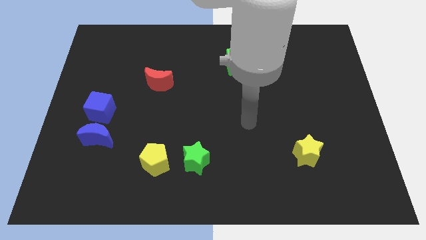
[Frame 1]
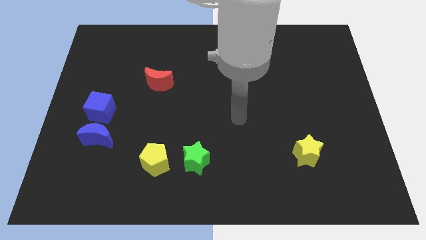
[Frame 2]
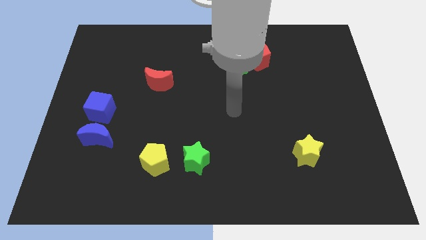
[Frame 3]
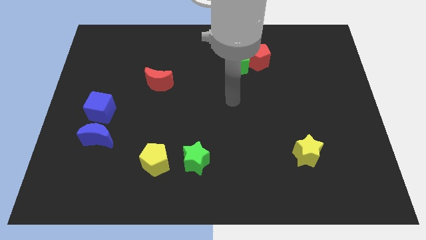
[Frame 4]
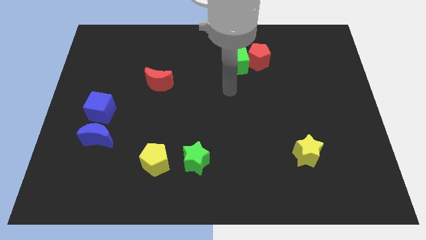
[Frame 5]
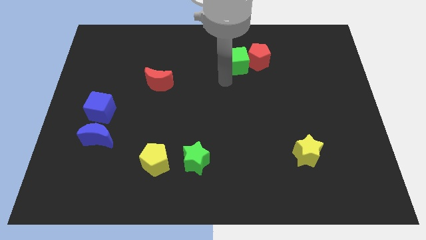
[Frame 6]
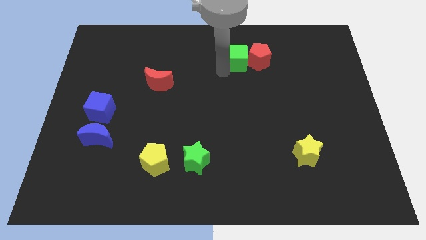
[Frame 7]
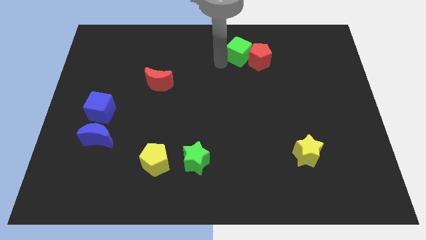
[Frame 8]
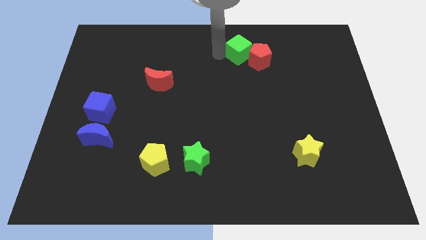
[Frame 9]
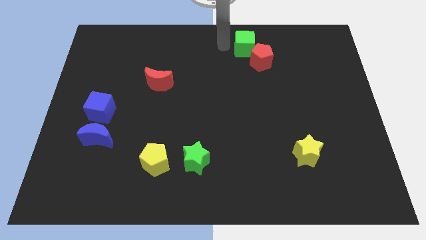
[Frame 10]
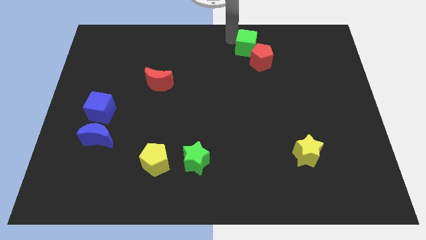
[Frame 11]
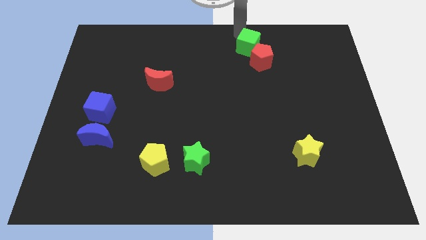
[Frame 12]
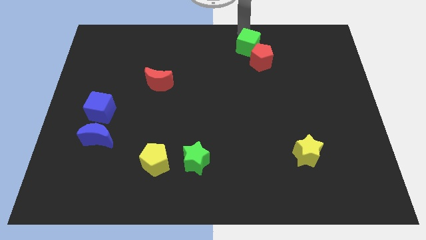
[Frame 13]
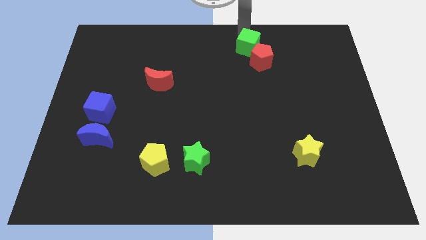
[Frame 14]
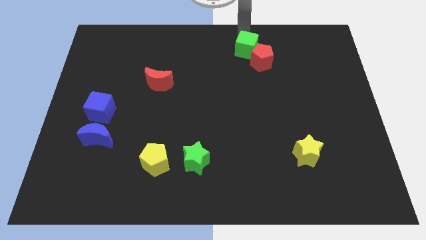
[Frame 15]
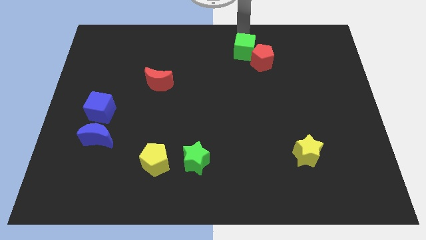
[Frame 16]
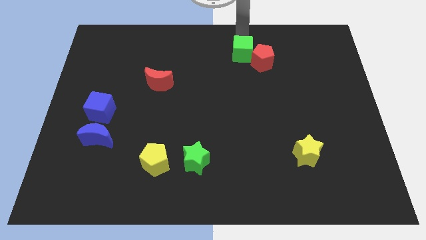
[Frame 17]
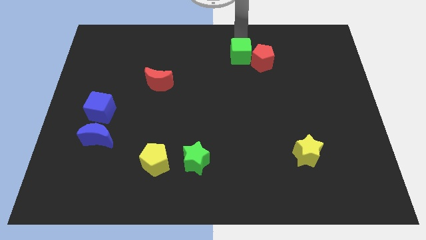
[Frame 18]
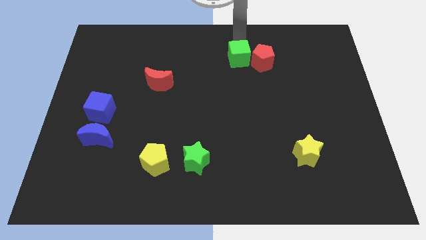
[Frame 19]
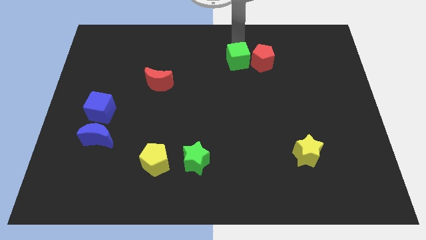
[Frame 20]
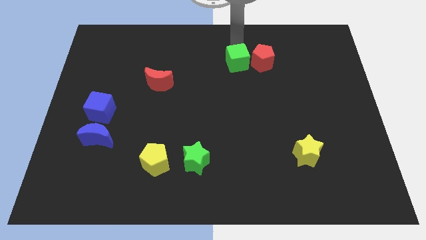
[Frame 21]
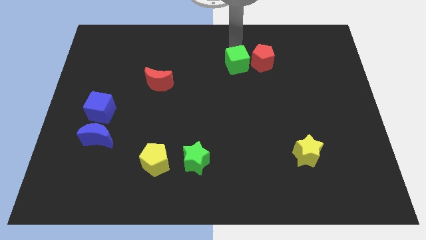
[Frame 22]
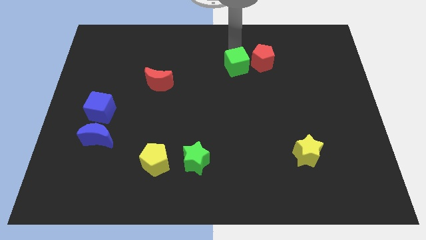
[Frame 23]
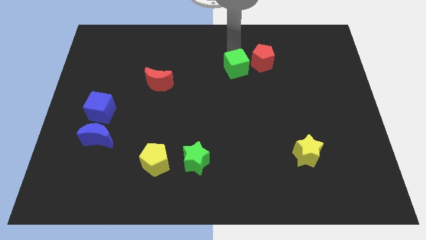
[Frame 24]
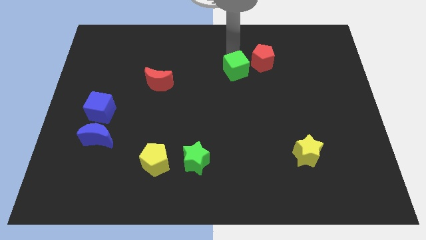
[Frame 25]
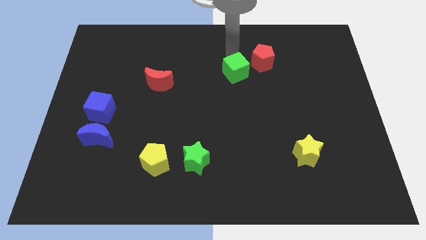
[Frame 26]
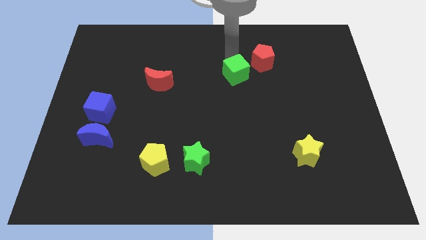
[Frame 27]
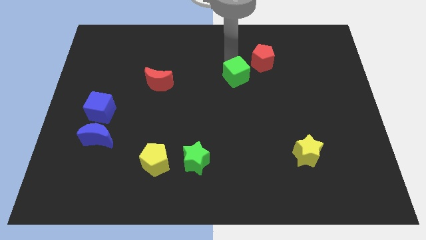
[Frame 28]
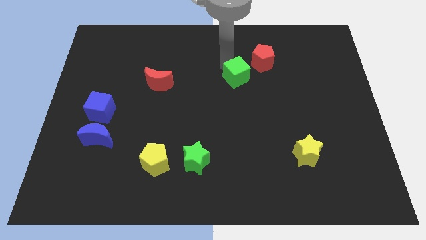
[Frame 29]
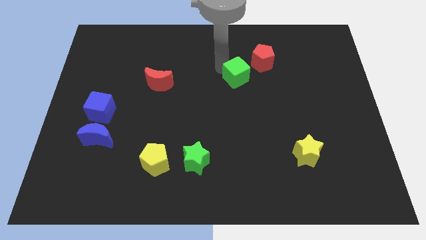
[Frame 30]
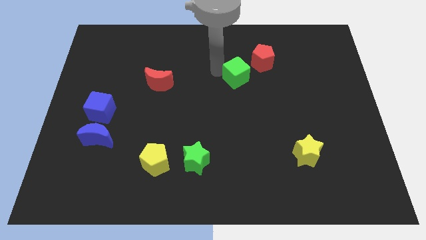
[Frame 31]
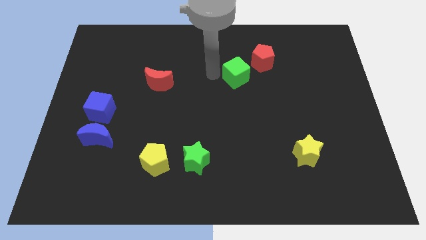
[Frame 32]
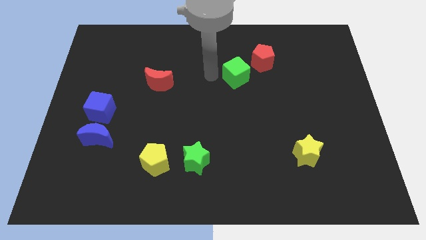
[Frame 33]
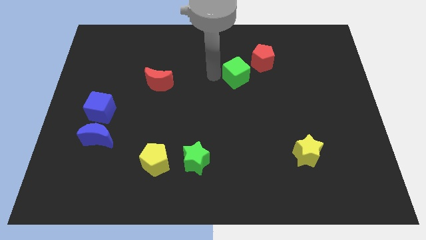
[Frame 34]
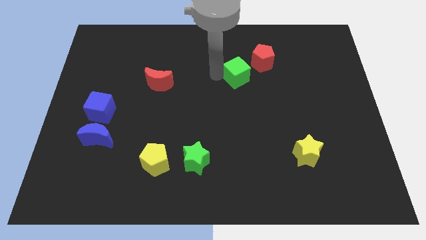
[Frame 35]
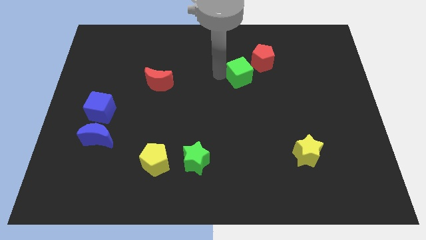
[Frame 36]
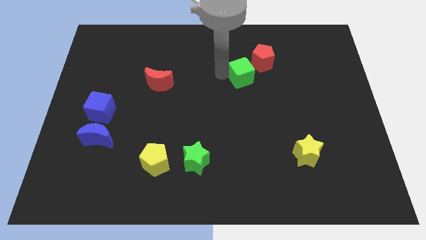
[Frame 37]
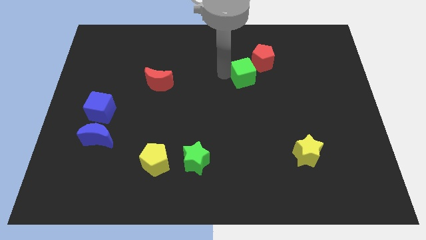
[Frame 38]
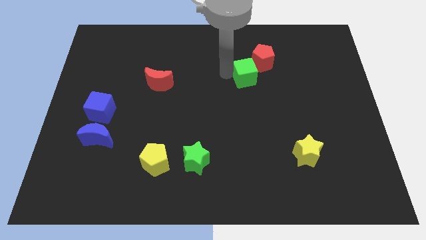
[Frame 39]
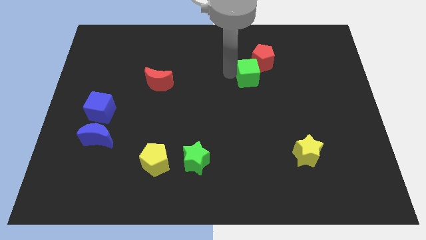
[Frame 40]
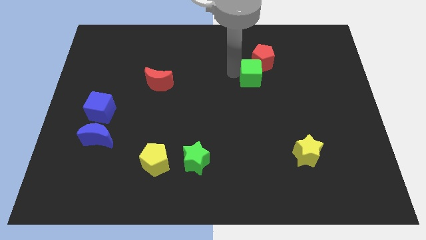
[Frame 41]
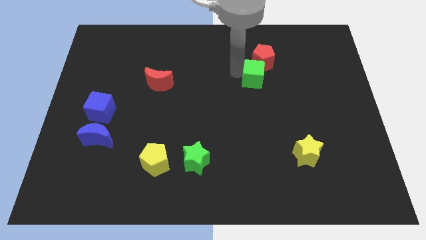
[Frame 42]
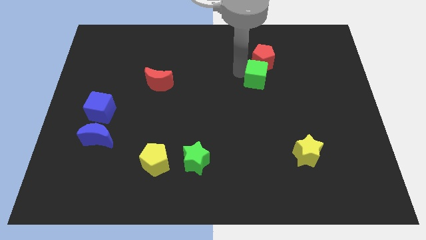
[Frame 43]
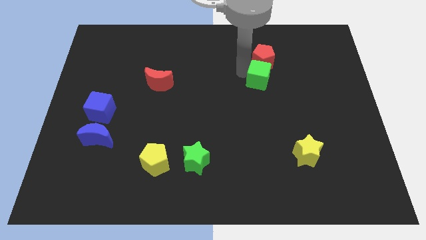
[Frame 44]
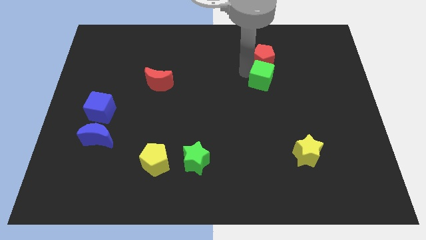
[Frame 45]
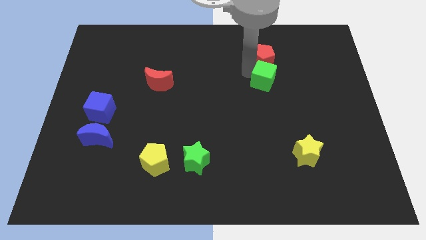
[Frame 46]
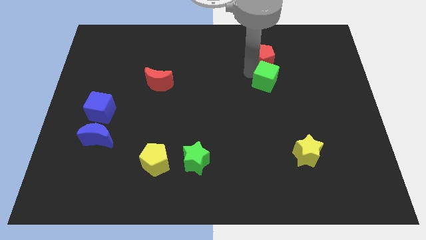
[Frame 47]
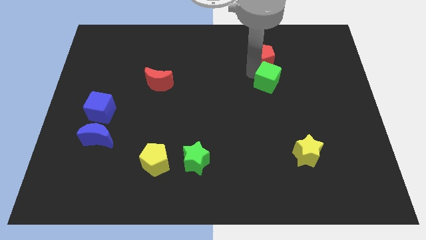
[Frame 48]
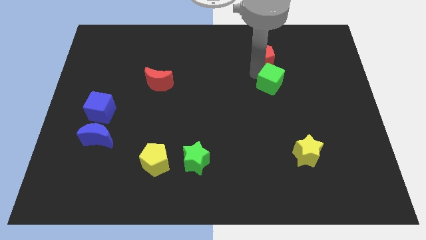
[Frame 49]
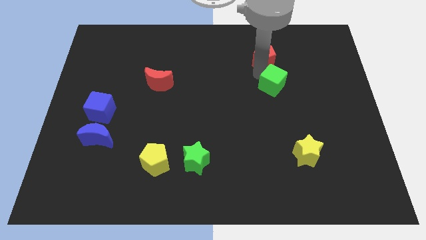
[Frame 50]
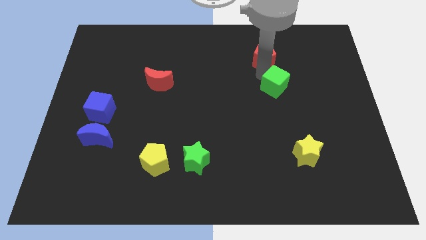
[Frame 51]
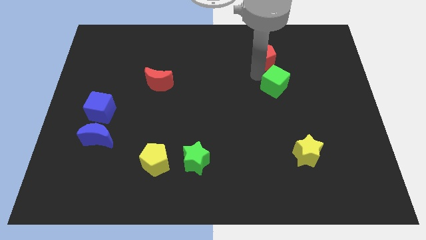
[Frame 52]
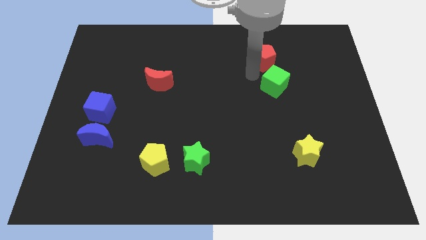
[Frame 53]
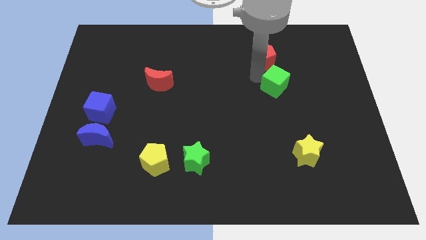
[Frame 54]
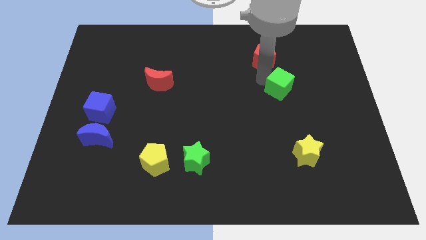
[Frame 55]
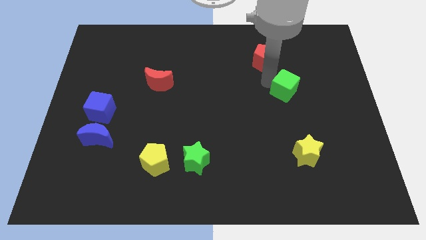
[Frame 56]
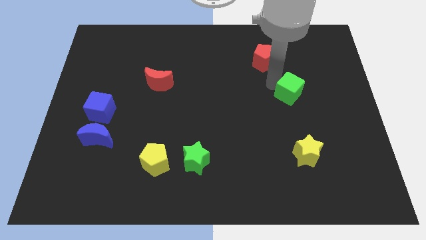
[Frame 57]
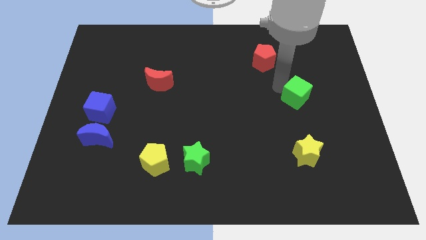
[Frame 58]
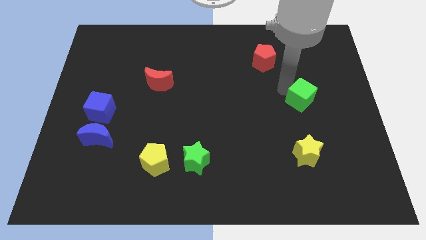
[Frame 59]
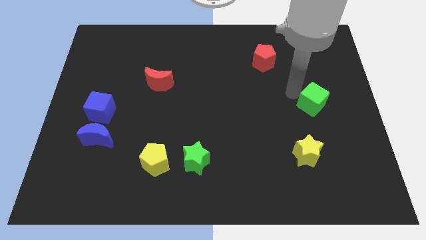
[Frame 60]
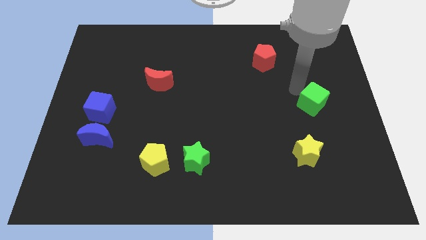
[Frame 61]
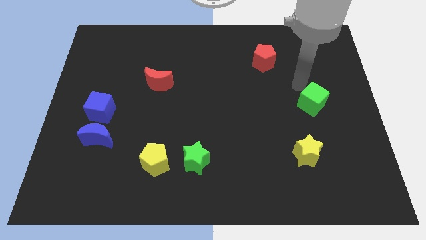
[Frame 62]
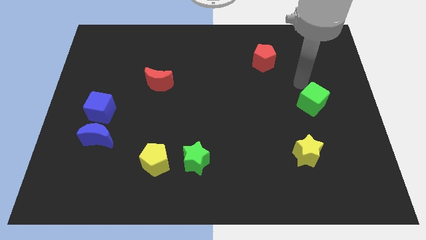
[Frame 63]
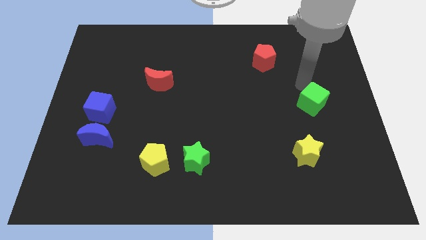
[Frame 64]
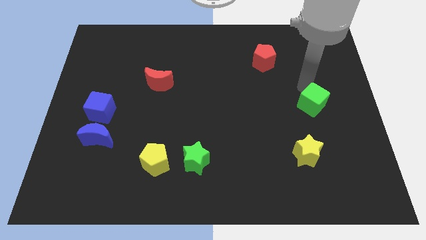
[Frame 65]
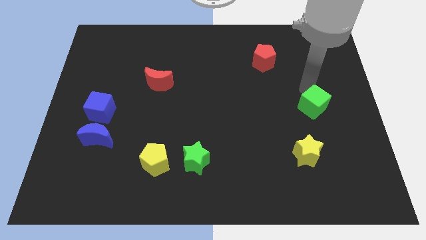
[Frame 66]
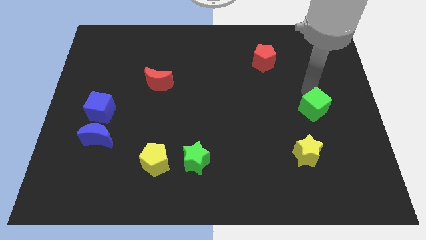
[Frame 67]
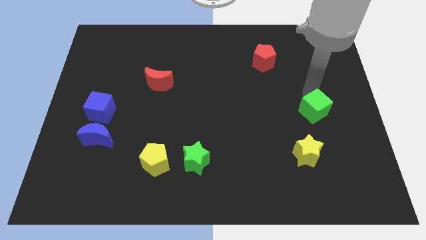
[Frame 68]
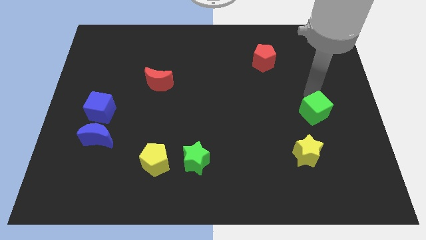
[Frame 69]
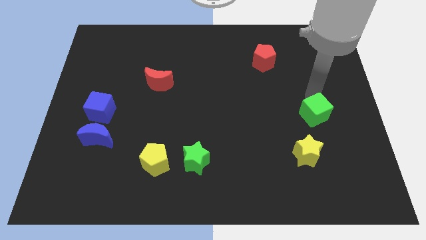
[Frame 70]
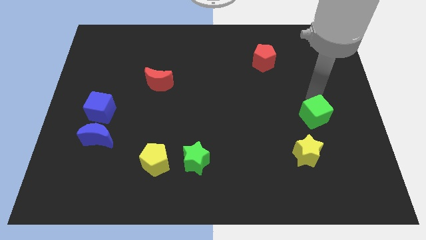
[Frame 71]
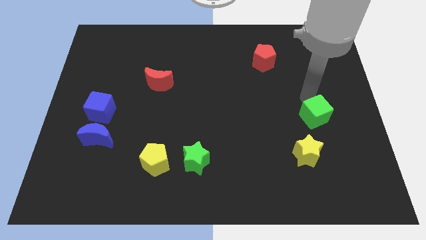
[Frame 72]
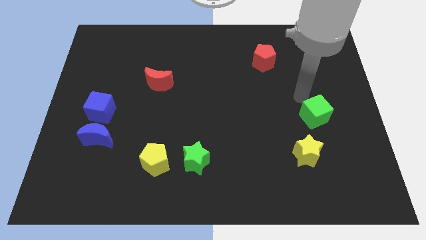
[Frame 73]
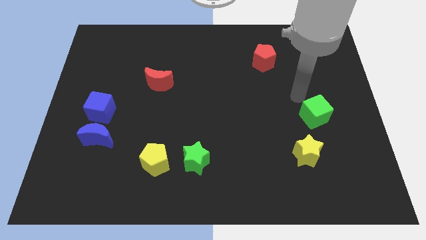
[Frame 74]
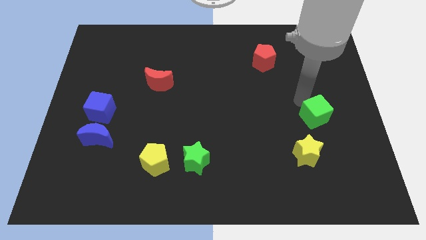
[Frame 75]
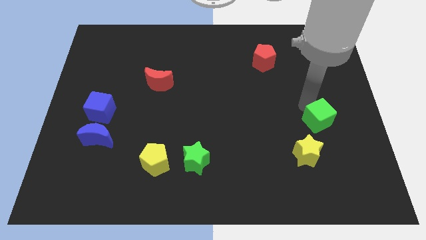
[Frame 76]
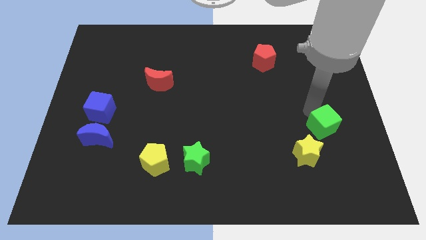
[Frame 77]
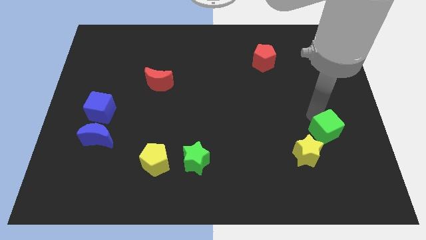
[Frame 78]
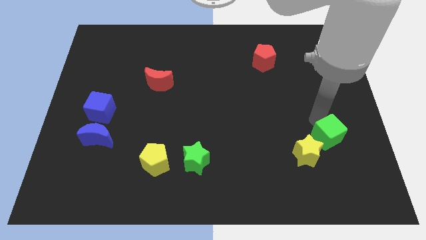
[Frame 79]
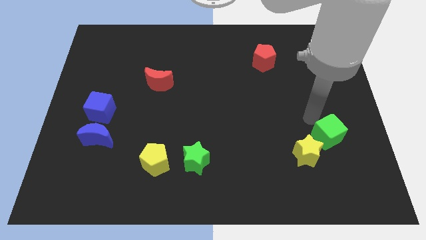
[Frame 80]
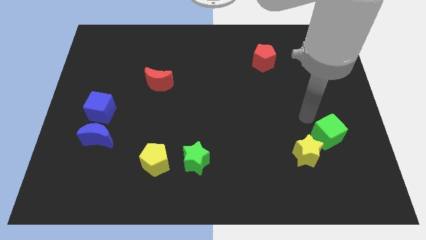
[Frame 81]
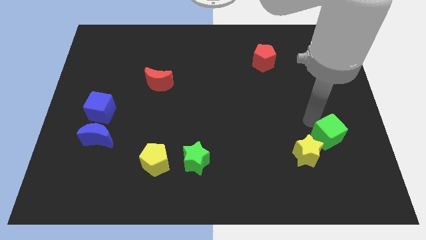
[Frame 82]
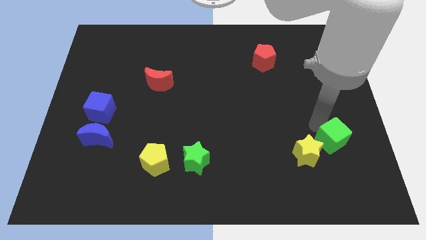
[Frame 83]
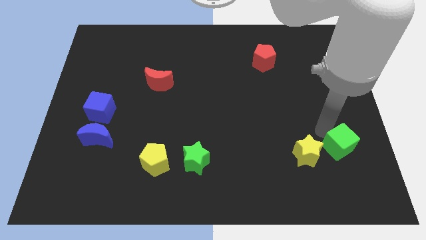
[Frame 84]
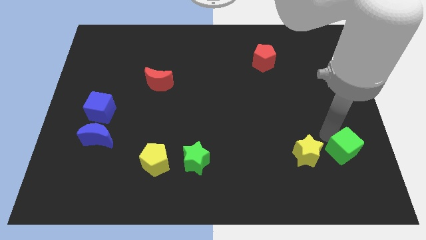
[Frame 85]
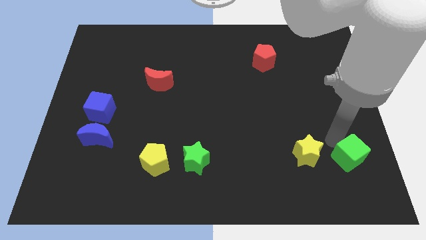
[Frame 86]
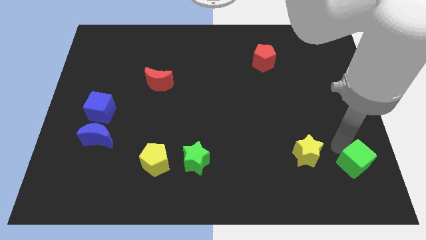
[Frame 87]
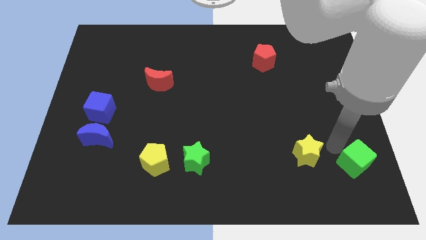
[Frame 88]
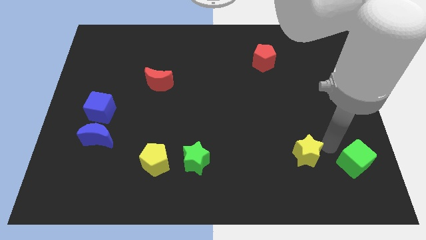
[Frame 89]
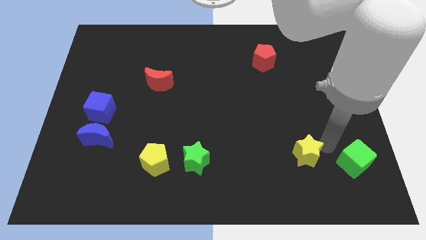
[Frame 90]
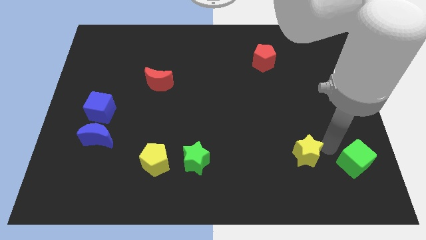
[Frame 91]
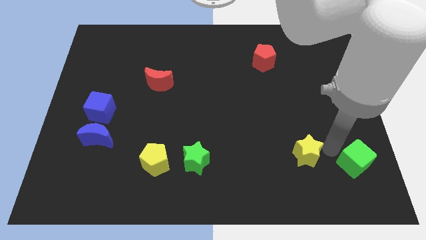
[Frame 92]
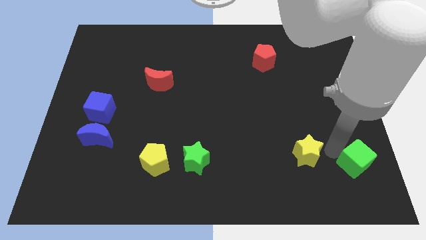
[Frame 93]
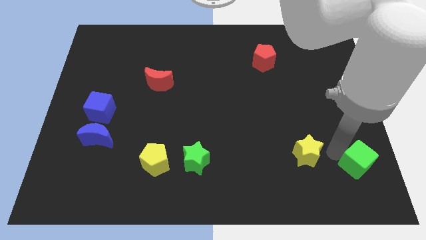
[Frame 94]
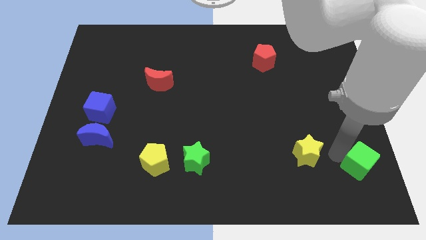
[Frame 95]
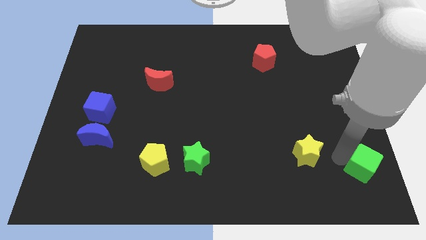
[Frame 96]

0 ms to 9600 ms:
move the green cube to the bottom right of the board
